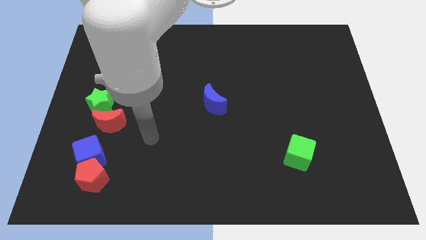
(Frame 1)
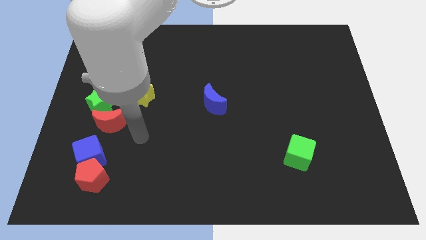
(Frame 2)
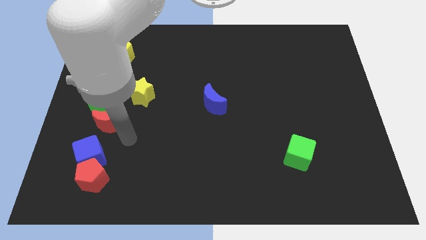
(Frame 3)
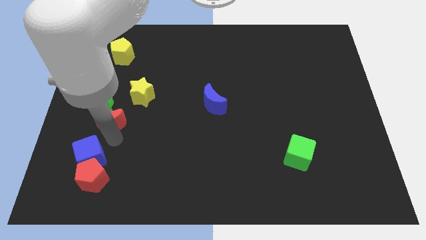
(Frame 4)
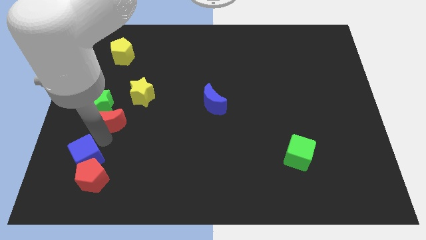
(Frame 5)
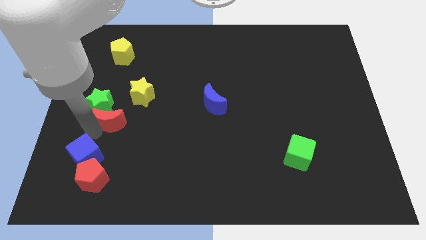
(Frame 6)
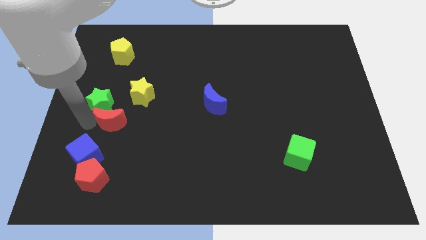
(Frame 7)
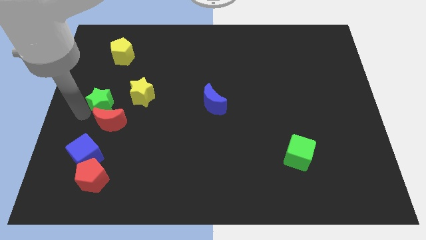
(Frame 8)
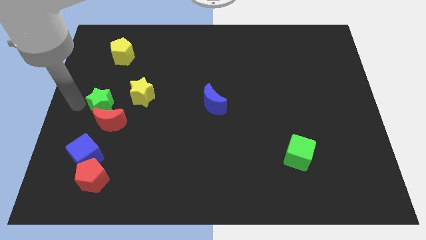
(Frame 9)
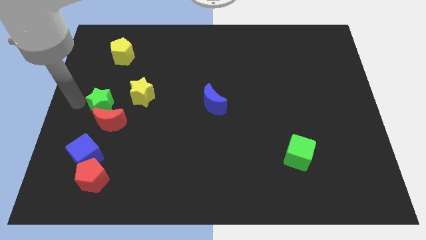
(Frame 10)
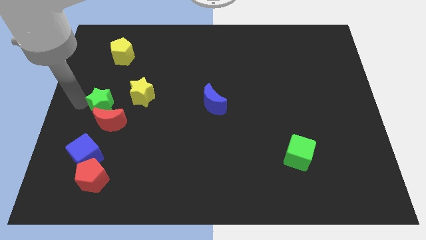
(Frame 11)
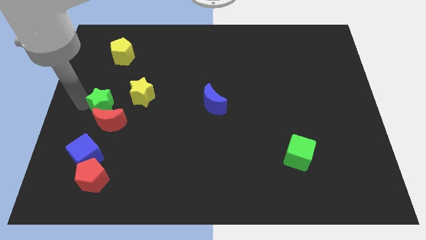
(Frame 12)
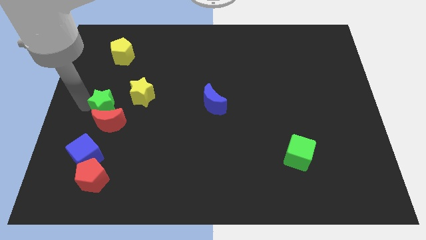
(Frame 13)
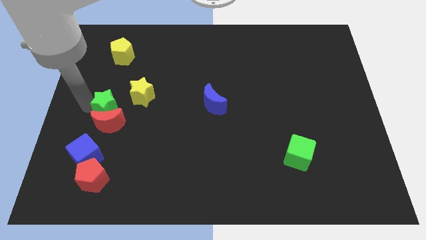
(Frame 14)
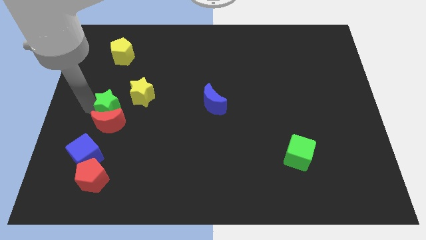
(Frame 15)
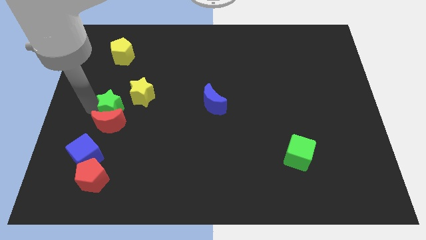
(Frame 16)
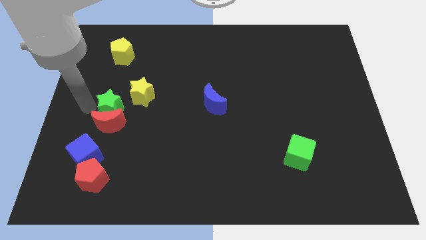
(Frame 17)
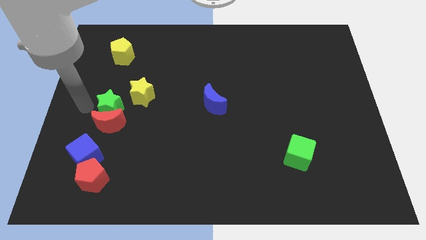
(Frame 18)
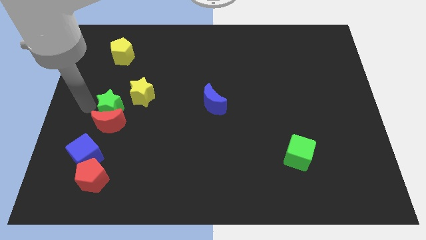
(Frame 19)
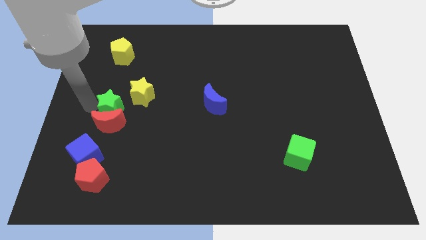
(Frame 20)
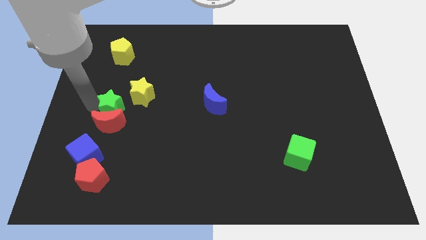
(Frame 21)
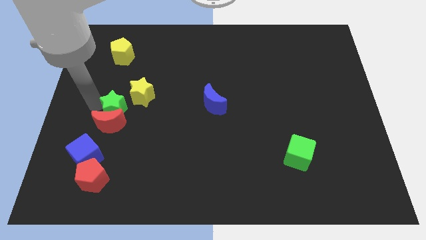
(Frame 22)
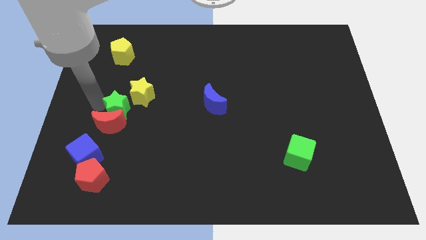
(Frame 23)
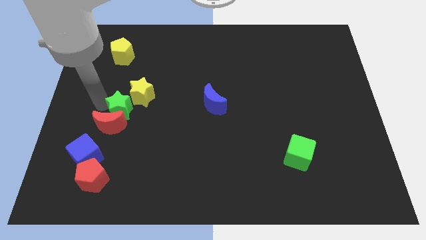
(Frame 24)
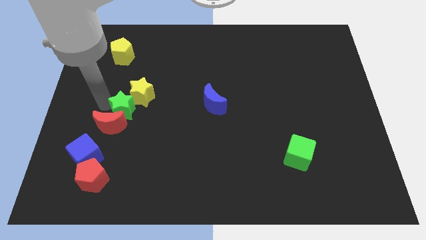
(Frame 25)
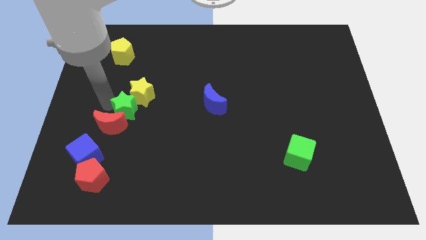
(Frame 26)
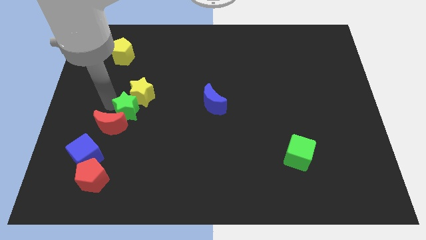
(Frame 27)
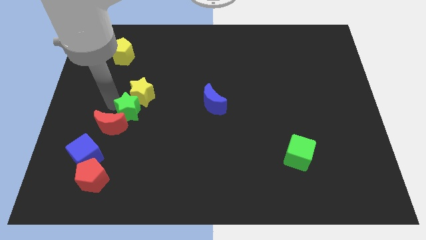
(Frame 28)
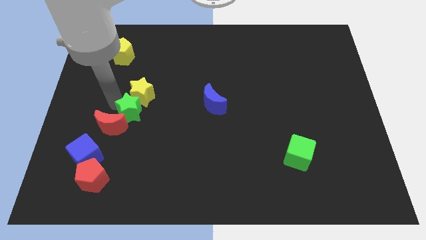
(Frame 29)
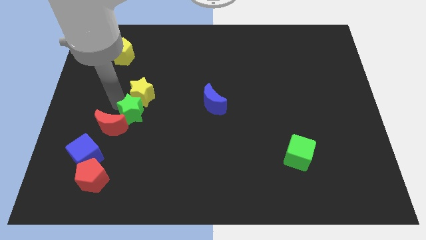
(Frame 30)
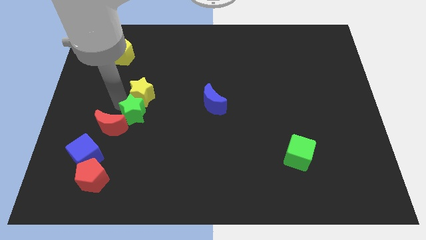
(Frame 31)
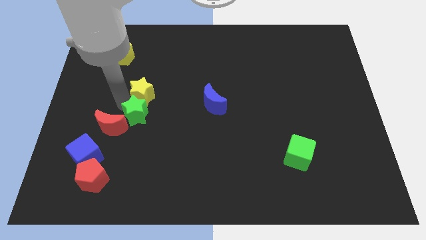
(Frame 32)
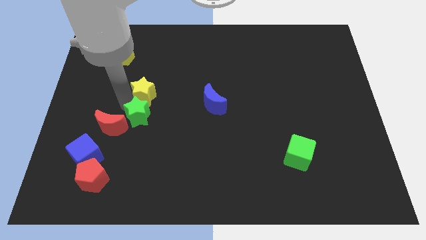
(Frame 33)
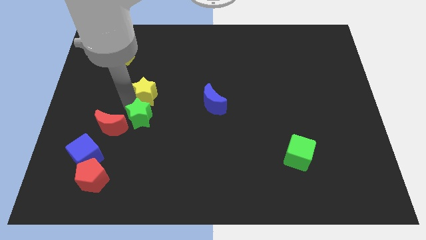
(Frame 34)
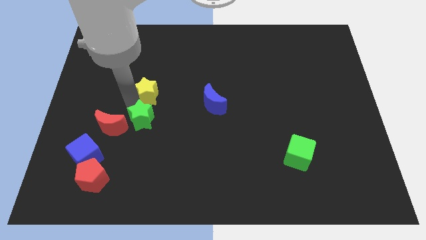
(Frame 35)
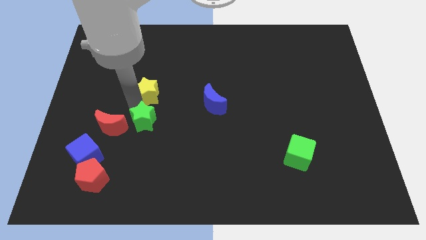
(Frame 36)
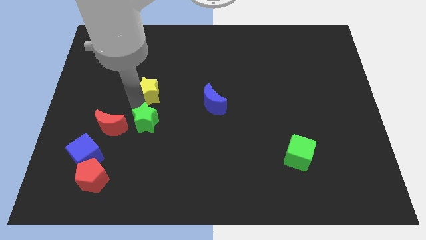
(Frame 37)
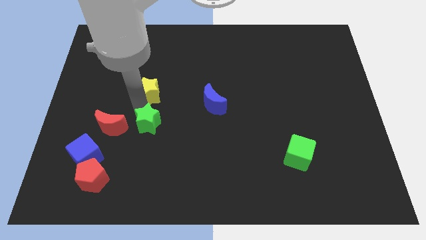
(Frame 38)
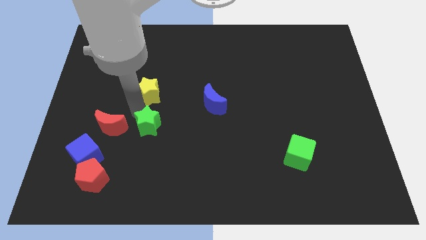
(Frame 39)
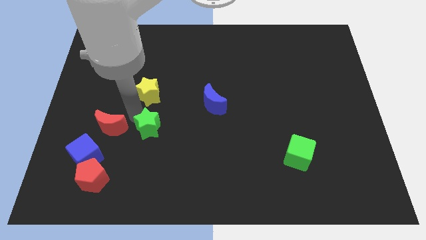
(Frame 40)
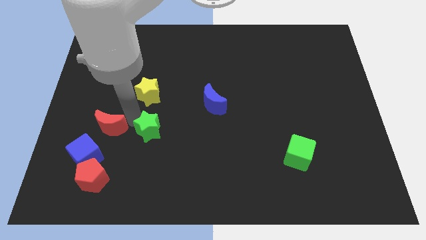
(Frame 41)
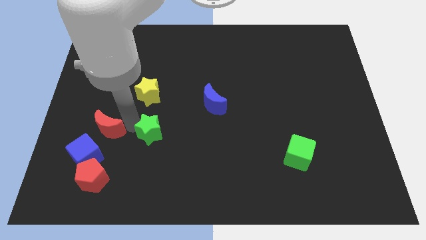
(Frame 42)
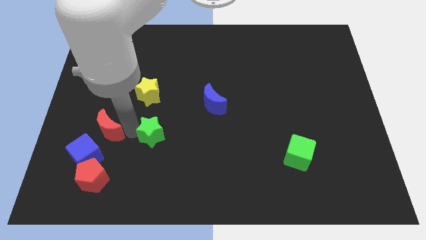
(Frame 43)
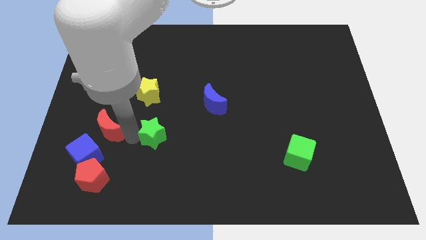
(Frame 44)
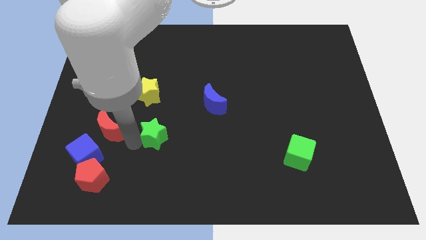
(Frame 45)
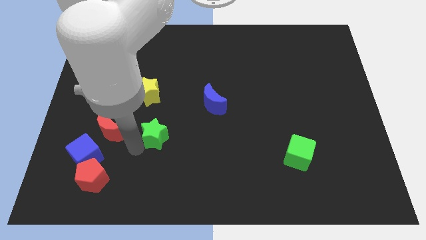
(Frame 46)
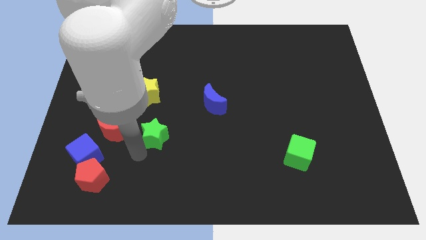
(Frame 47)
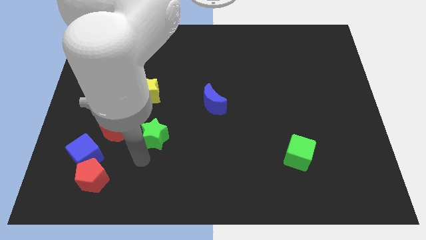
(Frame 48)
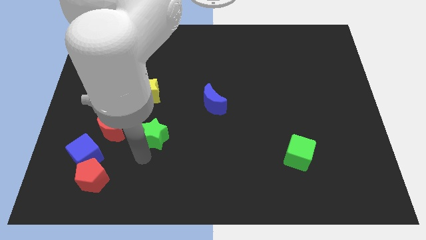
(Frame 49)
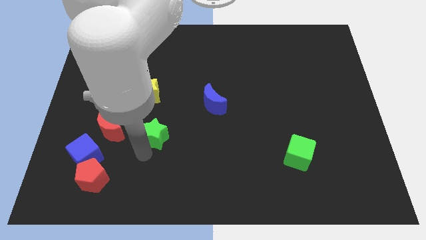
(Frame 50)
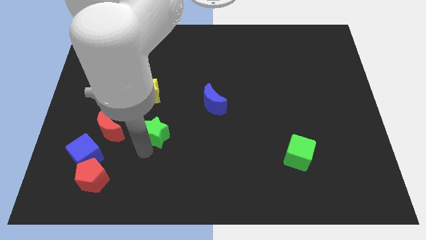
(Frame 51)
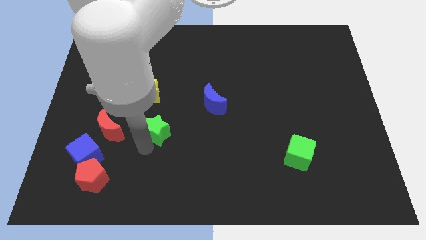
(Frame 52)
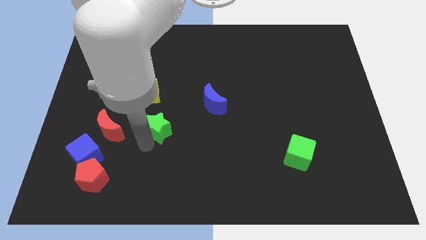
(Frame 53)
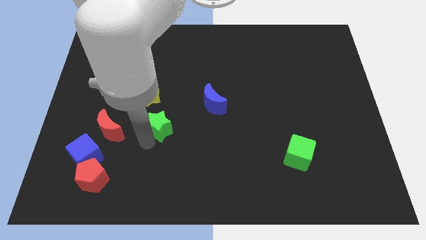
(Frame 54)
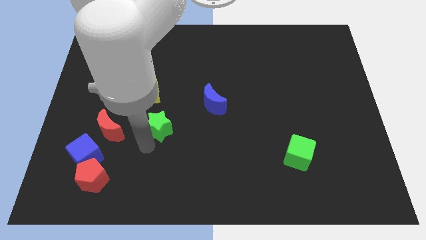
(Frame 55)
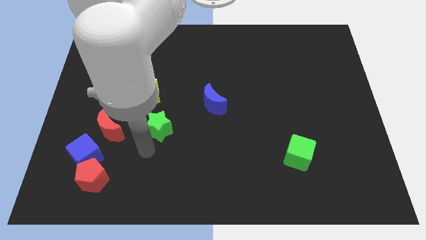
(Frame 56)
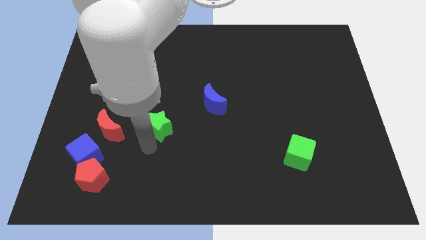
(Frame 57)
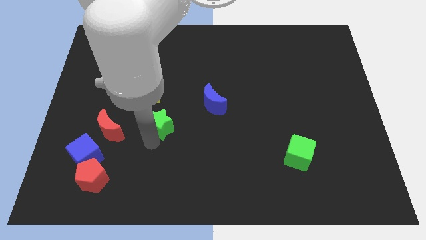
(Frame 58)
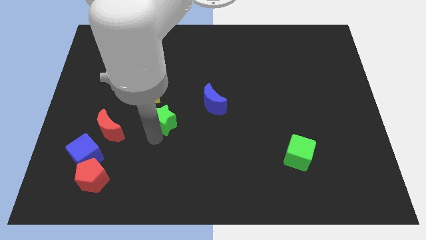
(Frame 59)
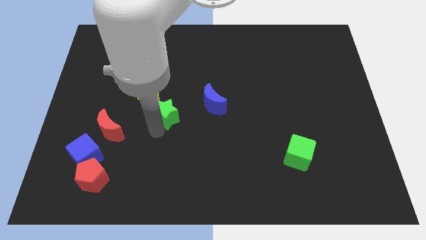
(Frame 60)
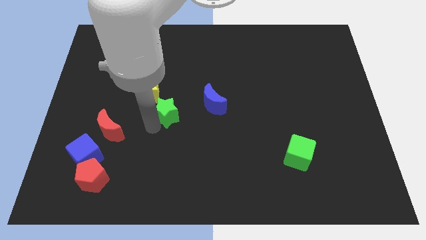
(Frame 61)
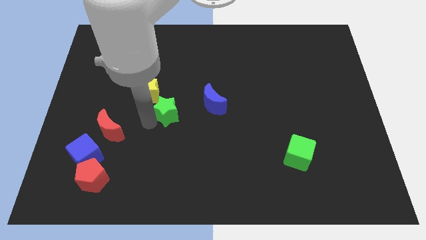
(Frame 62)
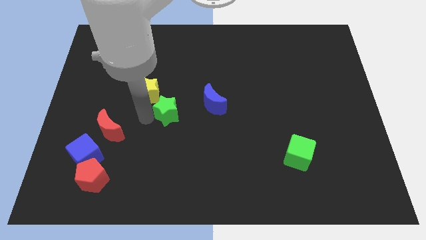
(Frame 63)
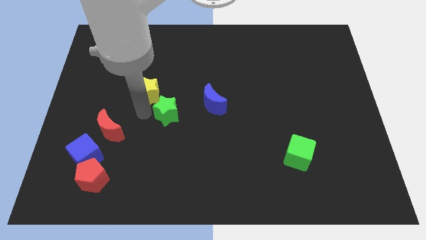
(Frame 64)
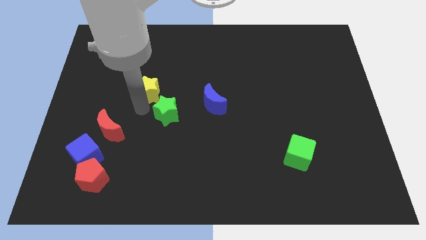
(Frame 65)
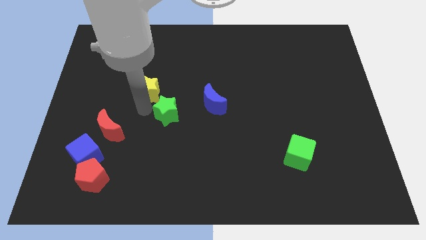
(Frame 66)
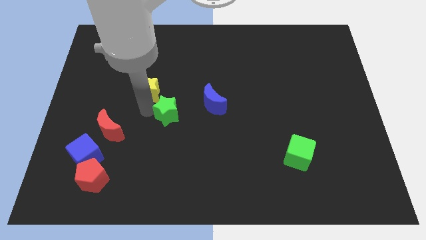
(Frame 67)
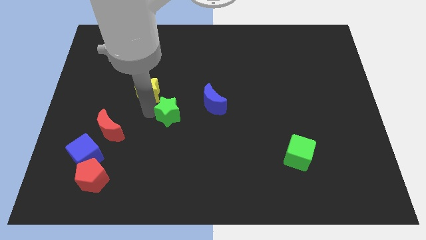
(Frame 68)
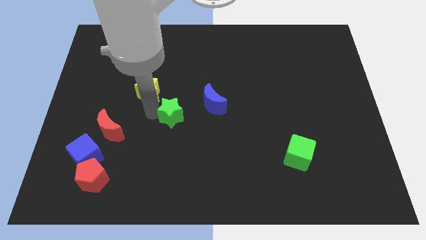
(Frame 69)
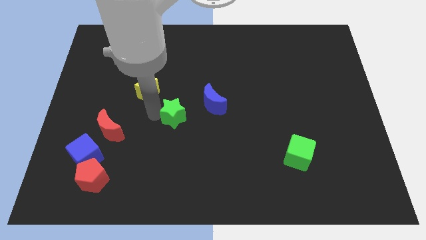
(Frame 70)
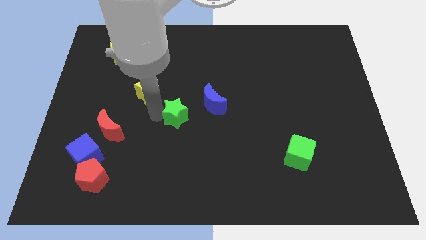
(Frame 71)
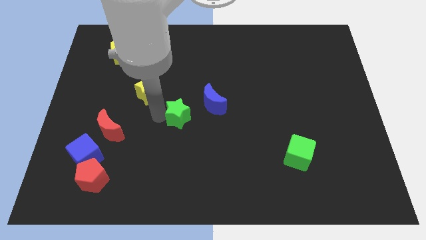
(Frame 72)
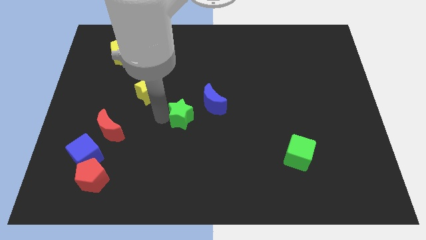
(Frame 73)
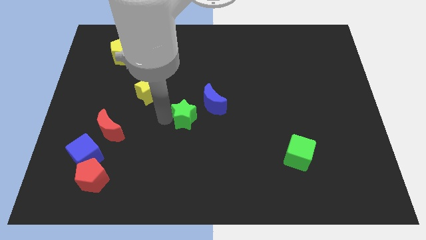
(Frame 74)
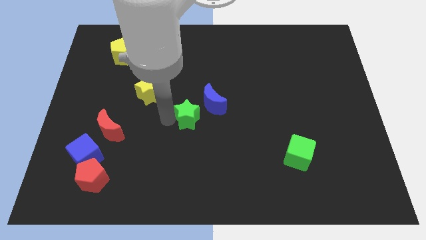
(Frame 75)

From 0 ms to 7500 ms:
slide the green star to the right

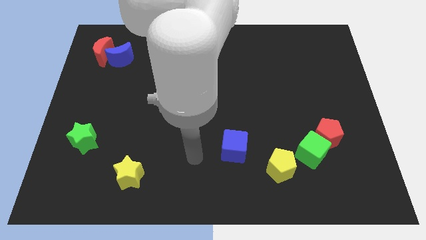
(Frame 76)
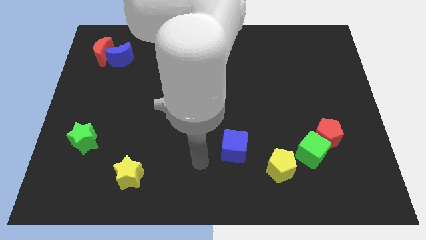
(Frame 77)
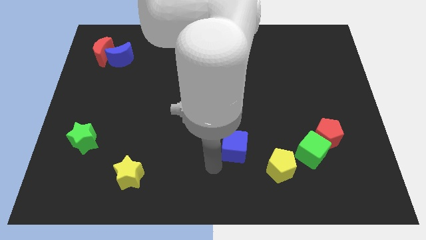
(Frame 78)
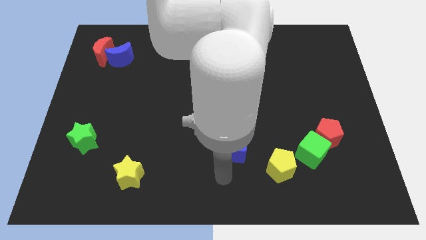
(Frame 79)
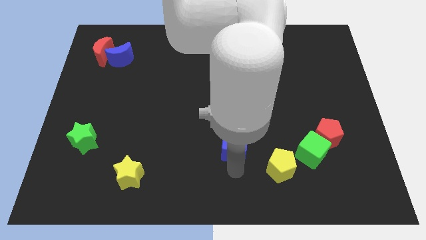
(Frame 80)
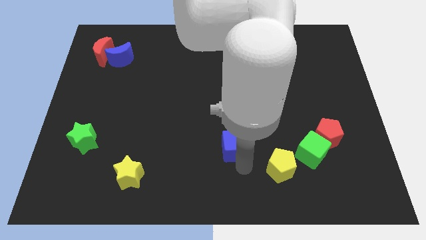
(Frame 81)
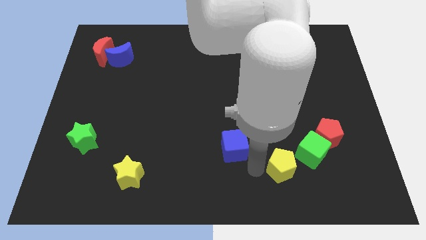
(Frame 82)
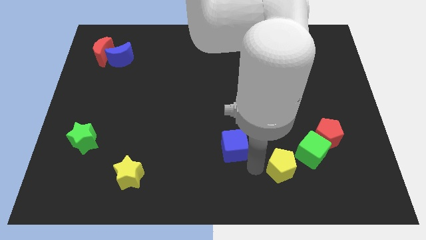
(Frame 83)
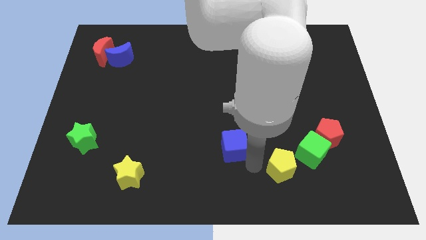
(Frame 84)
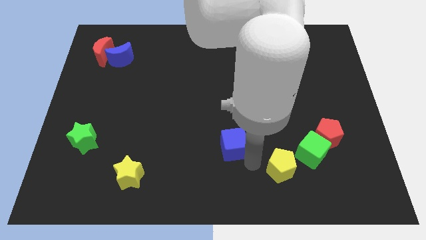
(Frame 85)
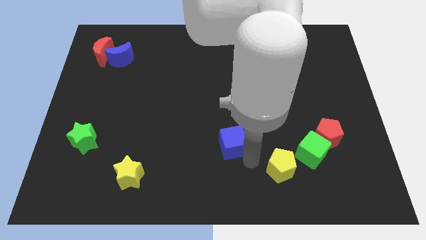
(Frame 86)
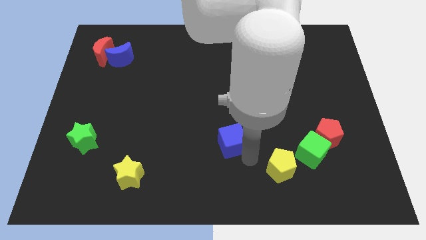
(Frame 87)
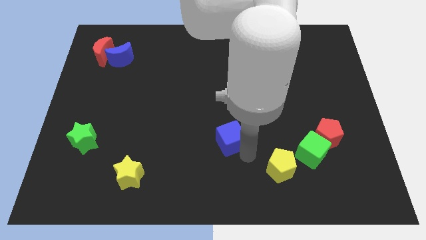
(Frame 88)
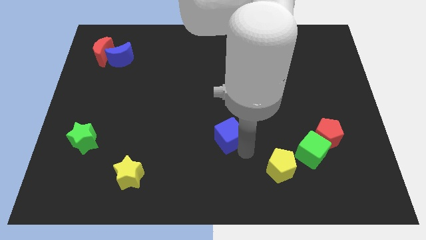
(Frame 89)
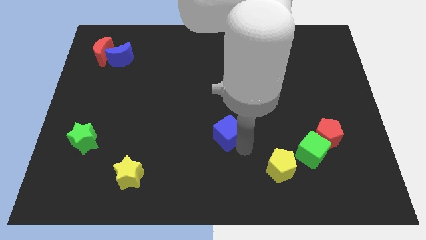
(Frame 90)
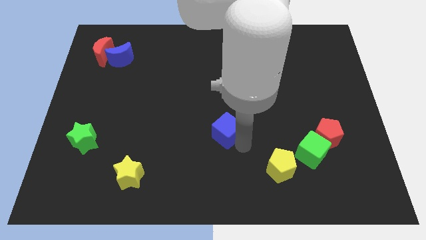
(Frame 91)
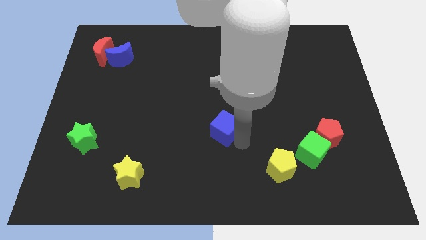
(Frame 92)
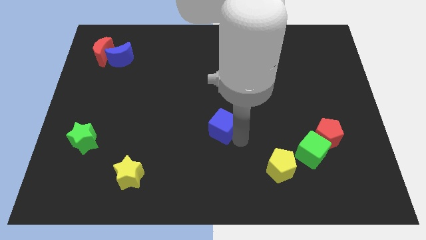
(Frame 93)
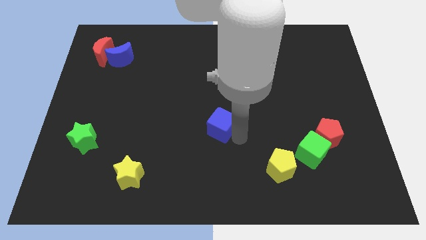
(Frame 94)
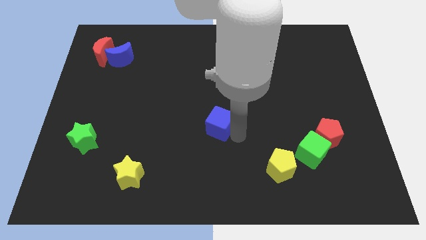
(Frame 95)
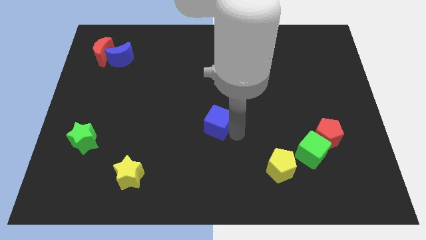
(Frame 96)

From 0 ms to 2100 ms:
slide the blue cube somewhat diagonally upwards and to the left
